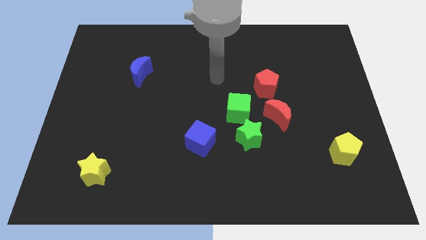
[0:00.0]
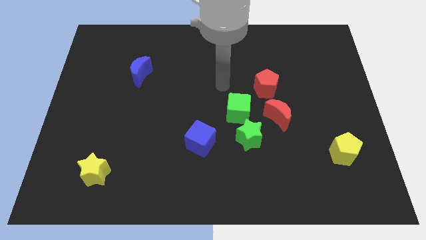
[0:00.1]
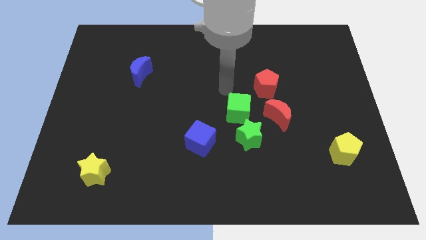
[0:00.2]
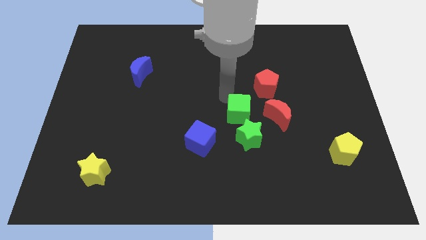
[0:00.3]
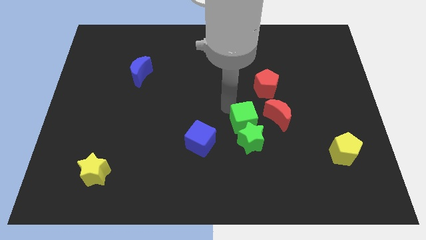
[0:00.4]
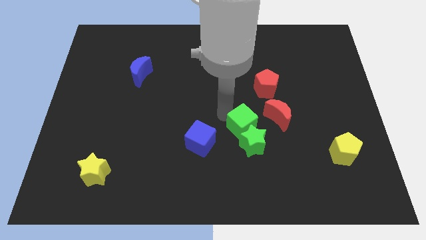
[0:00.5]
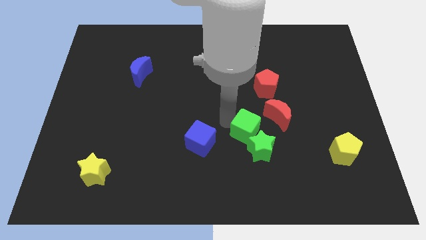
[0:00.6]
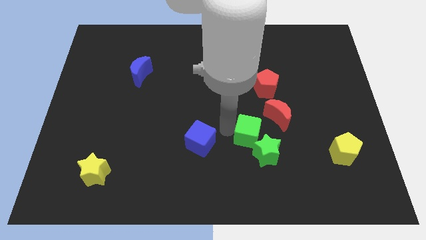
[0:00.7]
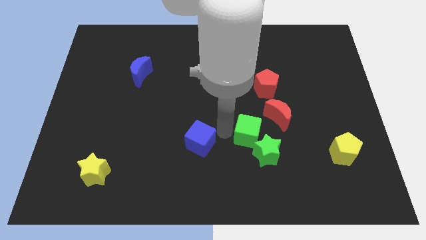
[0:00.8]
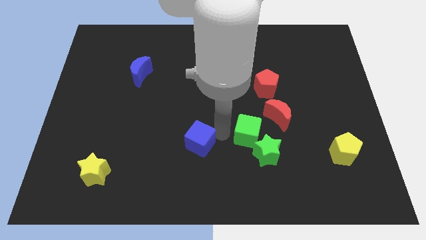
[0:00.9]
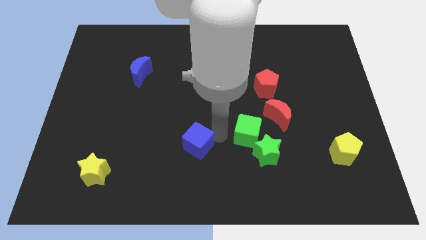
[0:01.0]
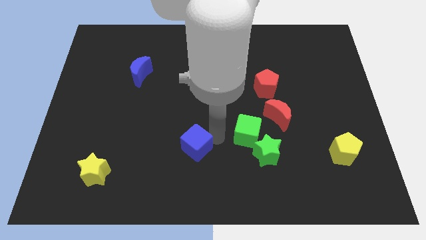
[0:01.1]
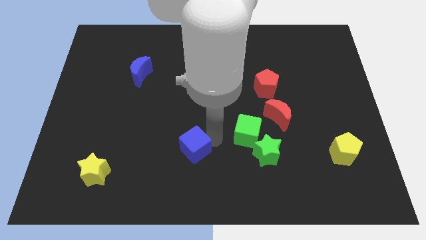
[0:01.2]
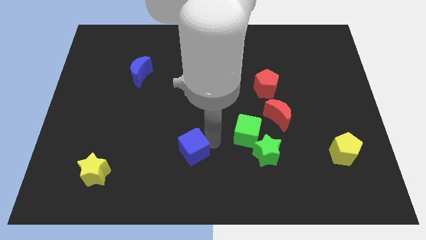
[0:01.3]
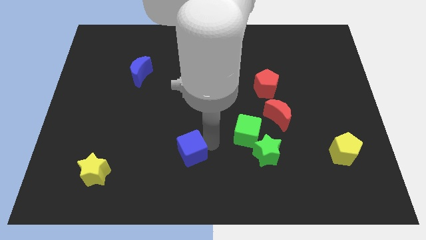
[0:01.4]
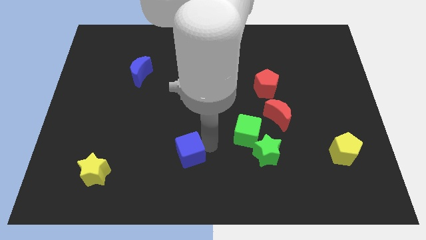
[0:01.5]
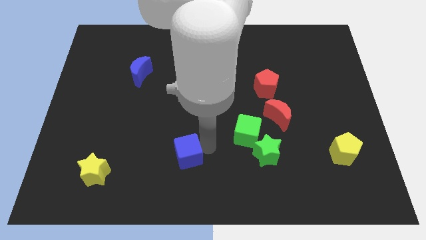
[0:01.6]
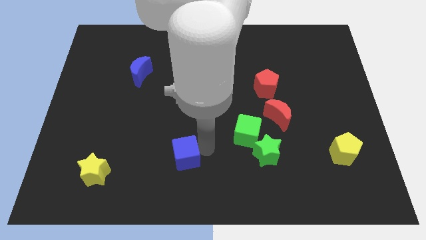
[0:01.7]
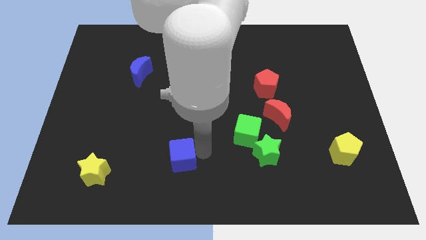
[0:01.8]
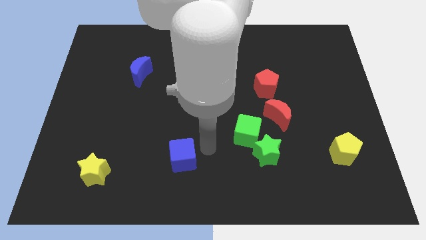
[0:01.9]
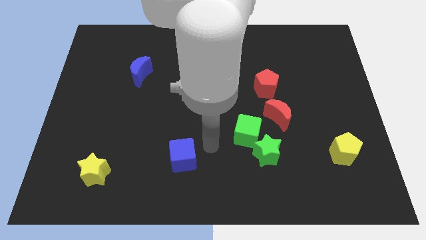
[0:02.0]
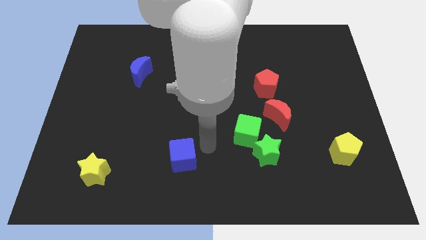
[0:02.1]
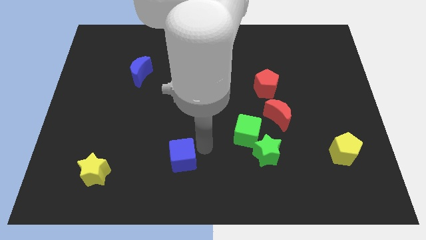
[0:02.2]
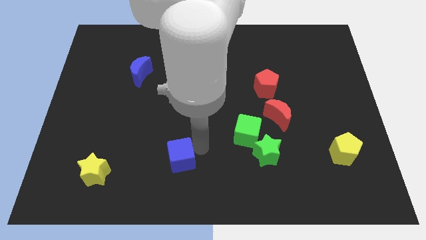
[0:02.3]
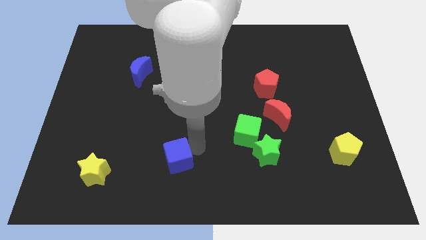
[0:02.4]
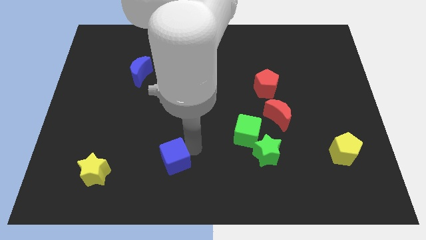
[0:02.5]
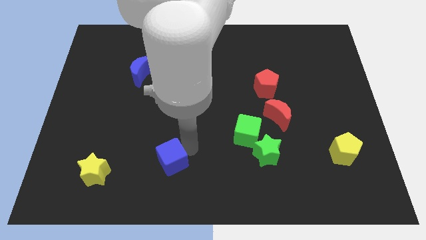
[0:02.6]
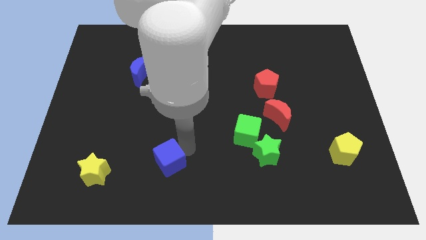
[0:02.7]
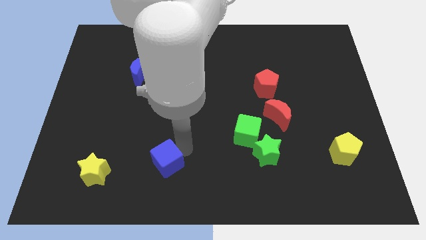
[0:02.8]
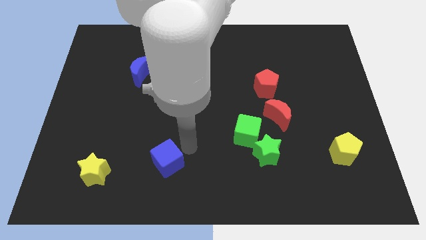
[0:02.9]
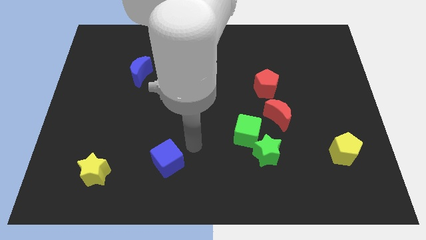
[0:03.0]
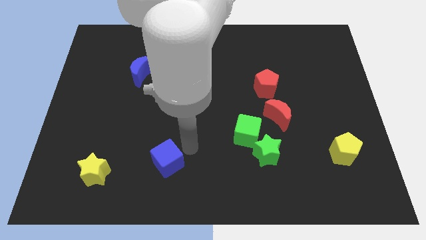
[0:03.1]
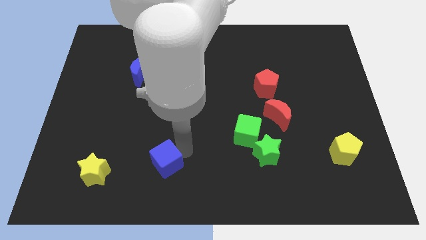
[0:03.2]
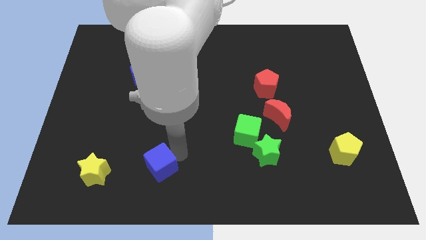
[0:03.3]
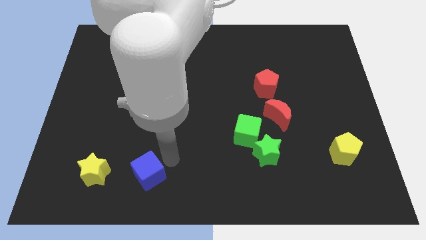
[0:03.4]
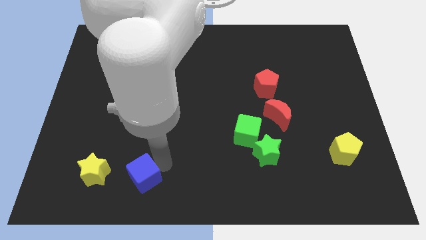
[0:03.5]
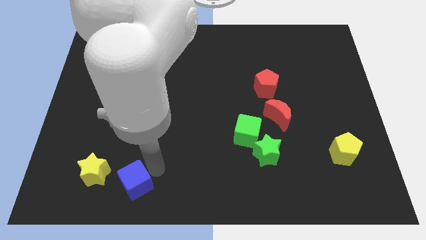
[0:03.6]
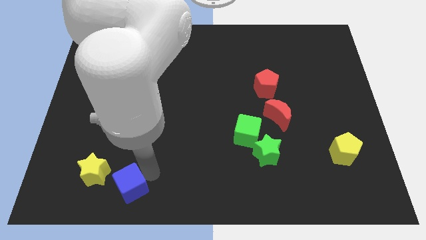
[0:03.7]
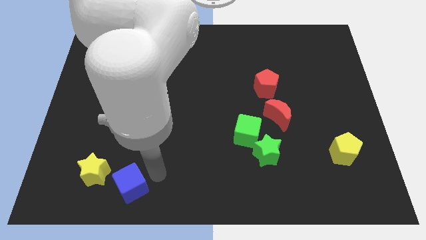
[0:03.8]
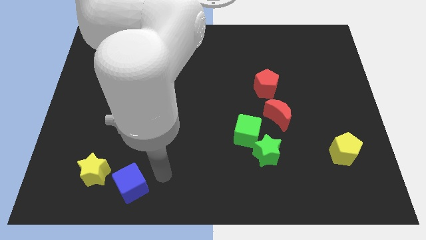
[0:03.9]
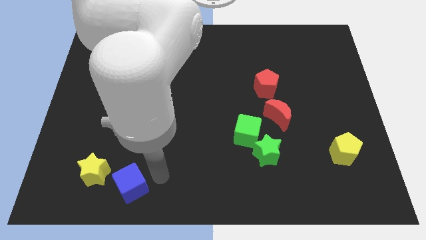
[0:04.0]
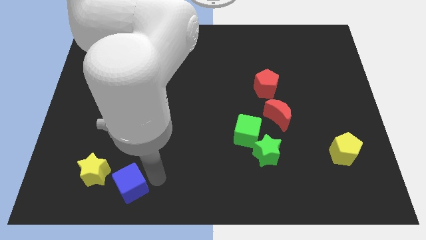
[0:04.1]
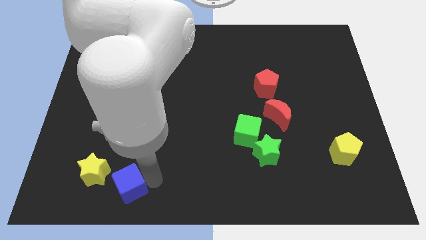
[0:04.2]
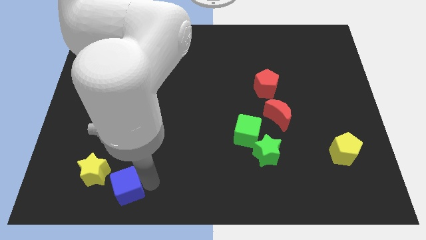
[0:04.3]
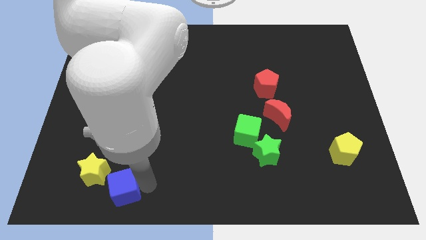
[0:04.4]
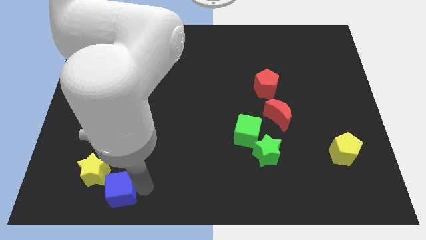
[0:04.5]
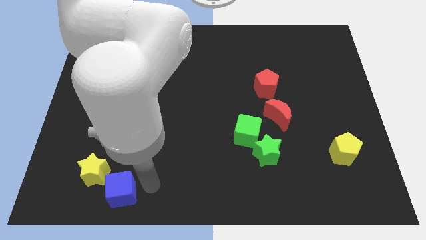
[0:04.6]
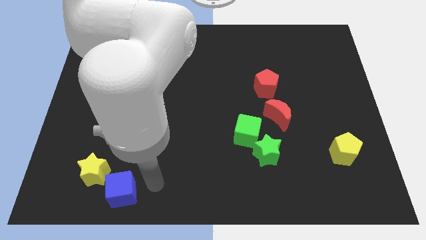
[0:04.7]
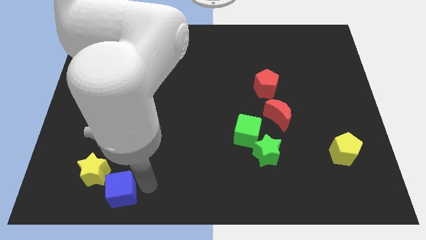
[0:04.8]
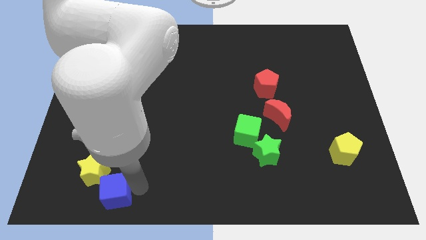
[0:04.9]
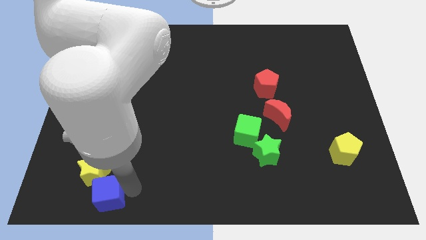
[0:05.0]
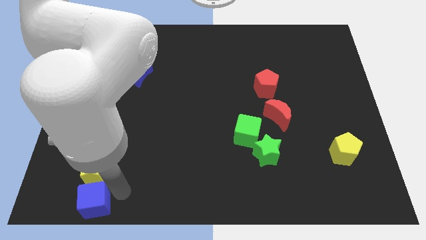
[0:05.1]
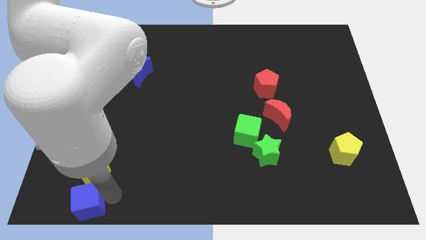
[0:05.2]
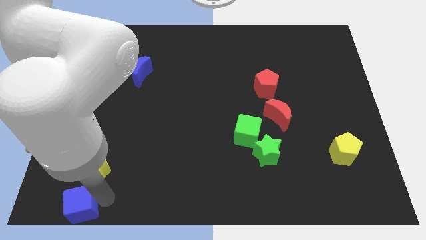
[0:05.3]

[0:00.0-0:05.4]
move the blue cube to the bottom left

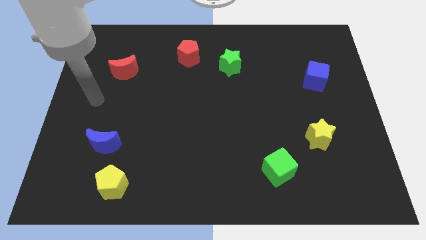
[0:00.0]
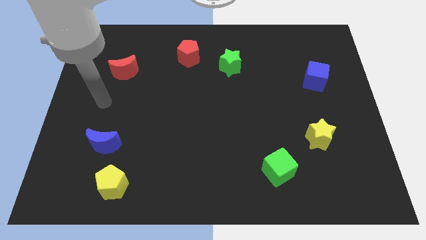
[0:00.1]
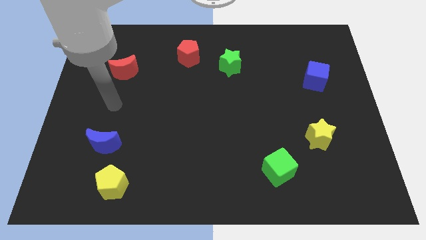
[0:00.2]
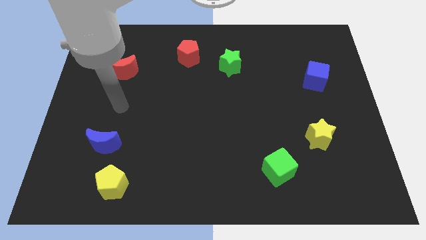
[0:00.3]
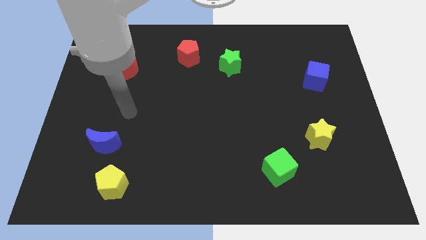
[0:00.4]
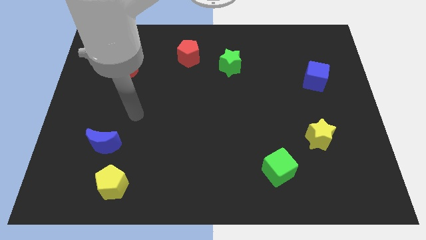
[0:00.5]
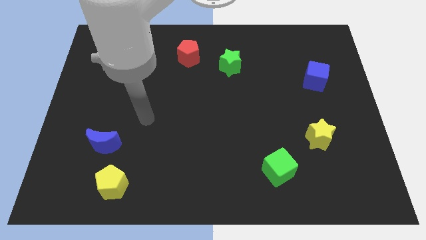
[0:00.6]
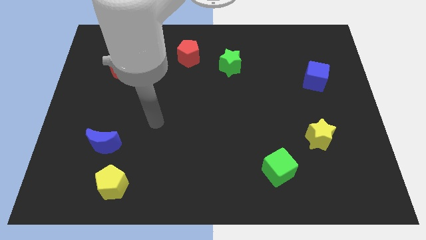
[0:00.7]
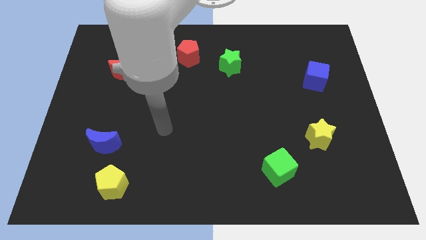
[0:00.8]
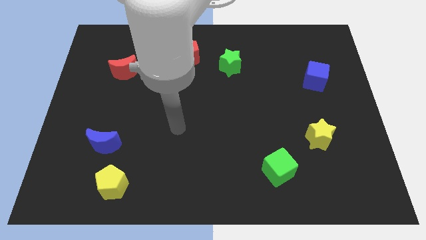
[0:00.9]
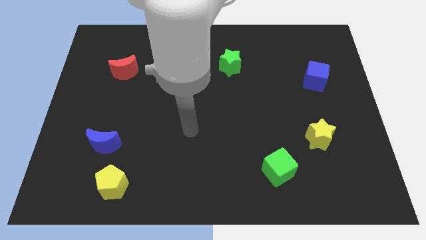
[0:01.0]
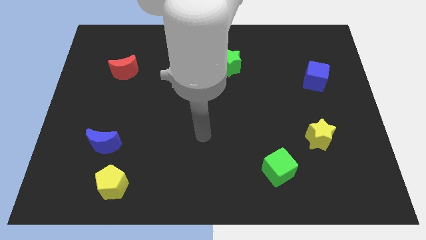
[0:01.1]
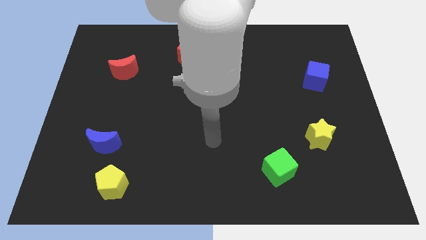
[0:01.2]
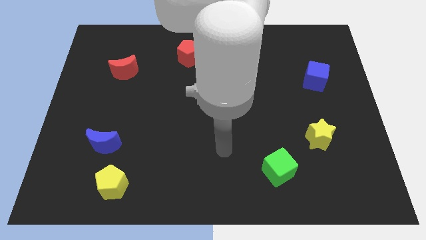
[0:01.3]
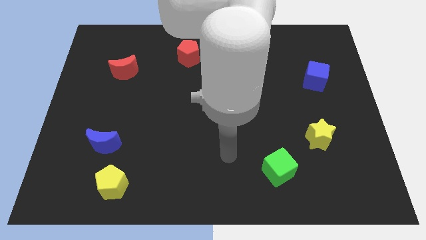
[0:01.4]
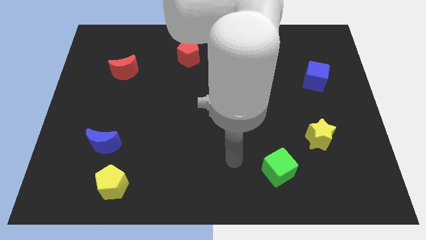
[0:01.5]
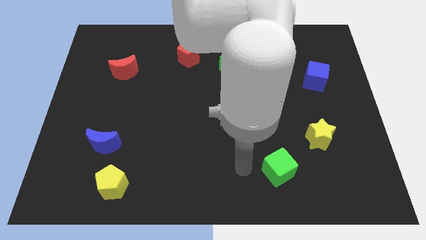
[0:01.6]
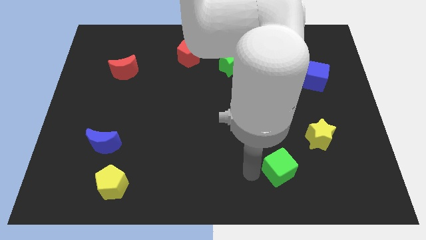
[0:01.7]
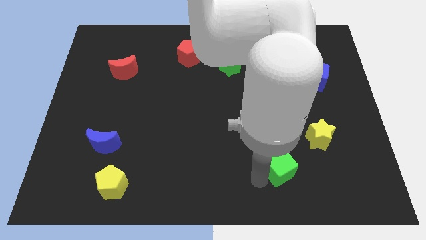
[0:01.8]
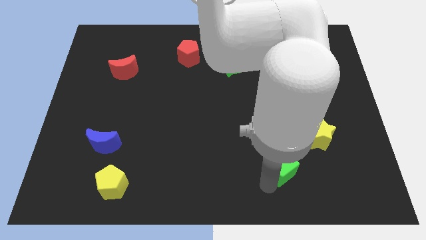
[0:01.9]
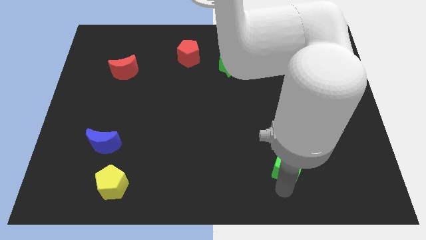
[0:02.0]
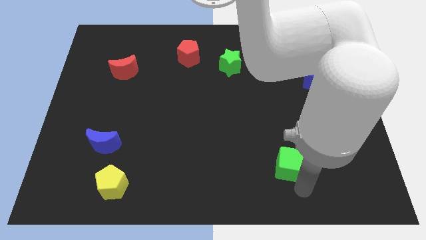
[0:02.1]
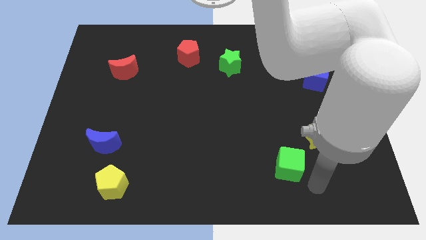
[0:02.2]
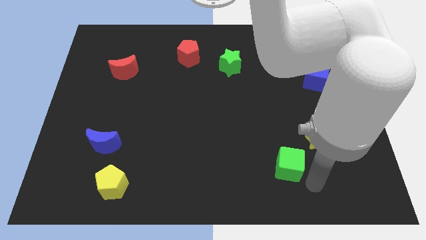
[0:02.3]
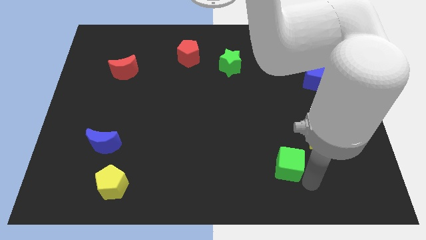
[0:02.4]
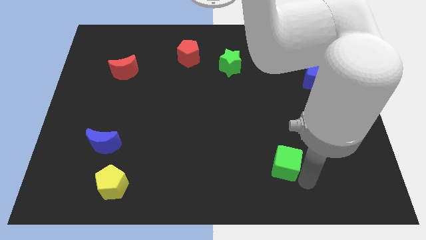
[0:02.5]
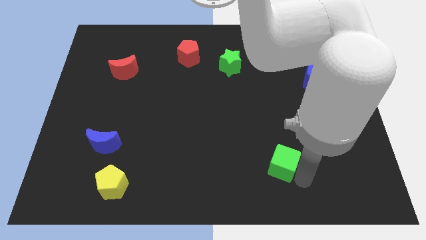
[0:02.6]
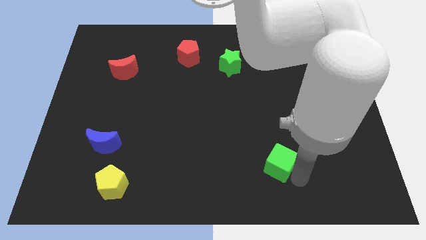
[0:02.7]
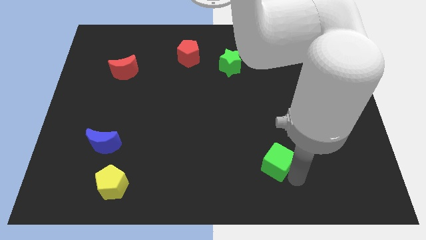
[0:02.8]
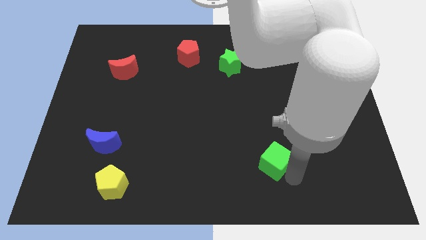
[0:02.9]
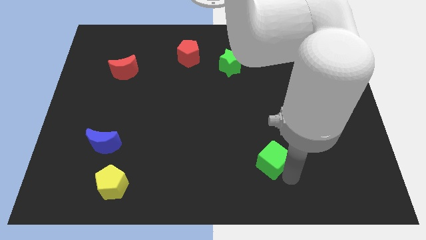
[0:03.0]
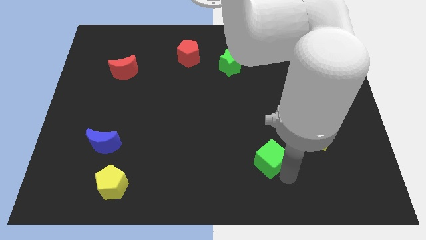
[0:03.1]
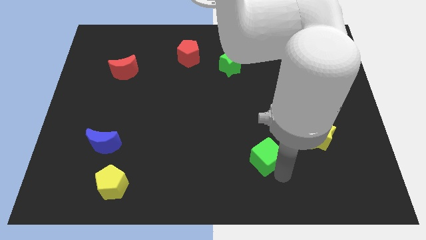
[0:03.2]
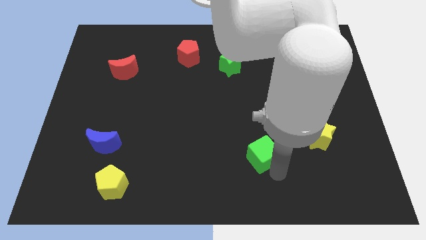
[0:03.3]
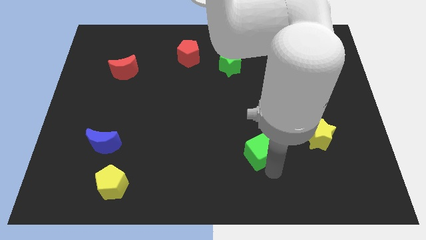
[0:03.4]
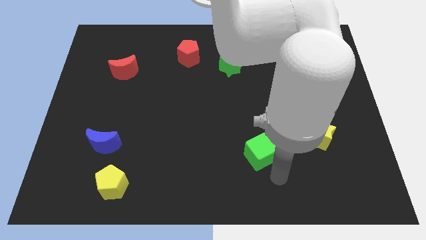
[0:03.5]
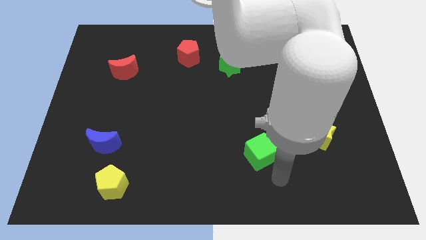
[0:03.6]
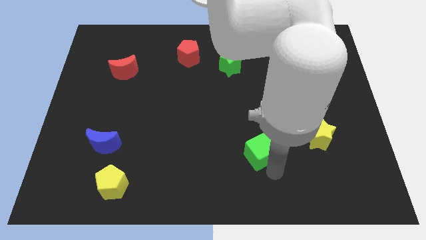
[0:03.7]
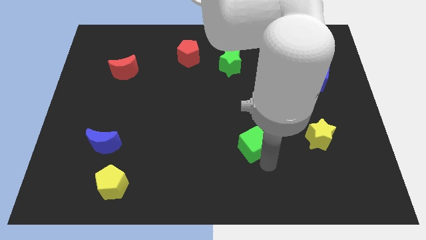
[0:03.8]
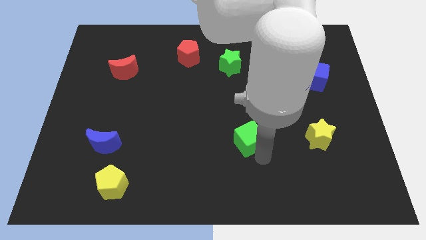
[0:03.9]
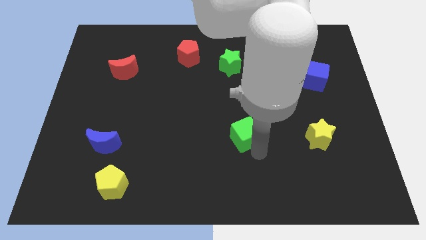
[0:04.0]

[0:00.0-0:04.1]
move the green cube to the middle of the board
